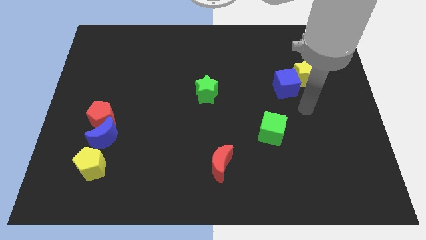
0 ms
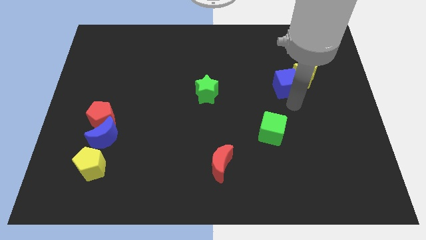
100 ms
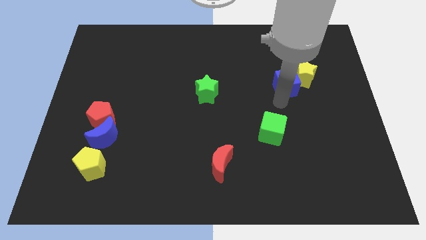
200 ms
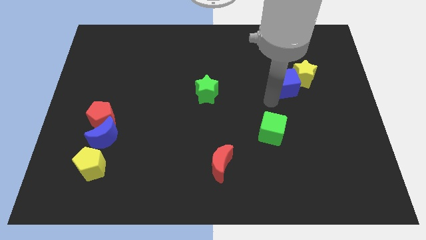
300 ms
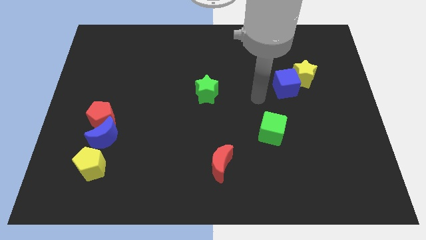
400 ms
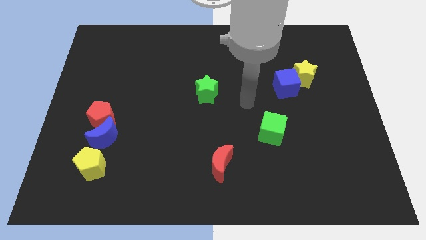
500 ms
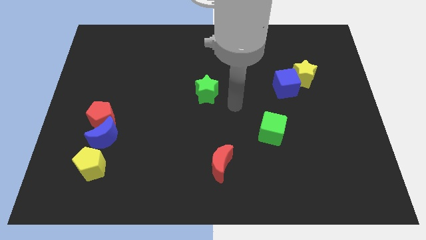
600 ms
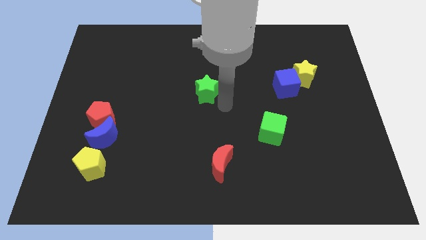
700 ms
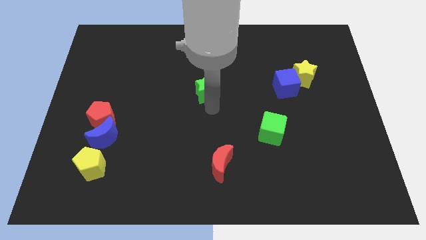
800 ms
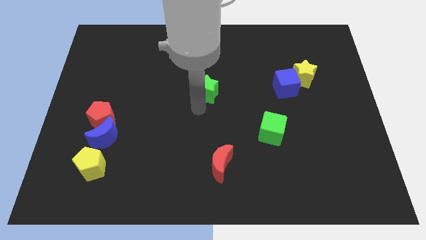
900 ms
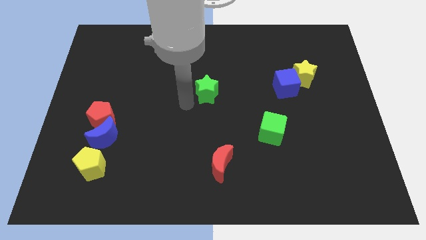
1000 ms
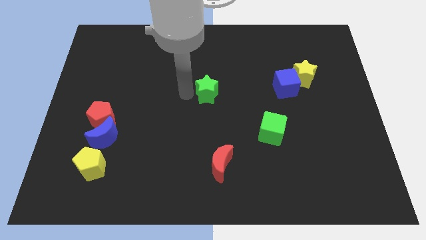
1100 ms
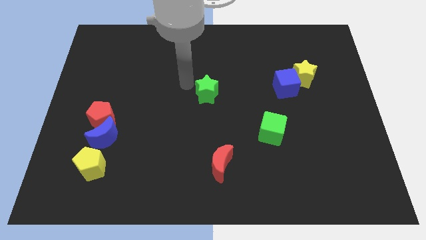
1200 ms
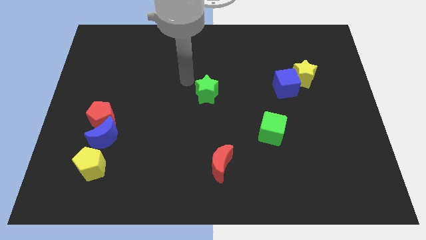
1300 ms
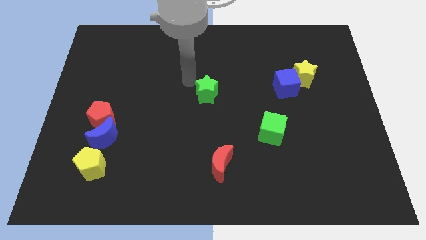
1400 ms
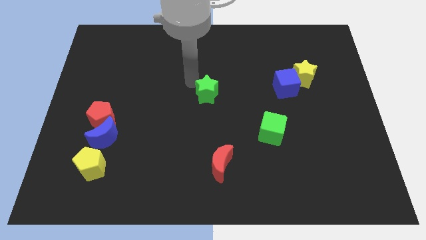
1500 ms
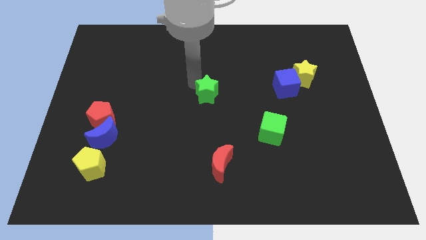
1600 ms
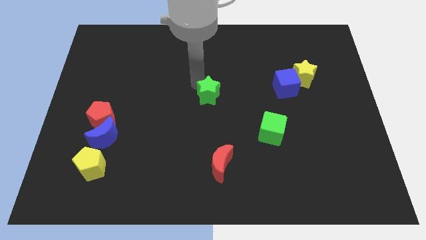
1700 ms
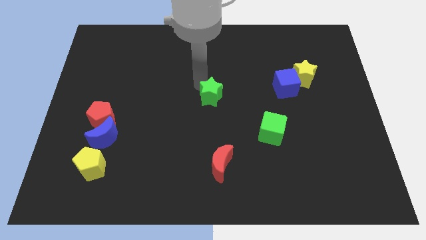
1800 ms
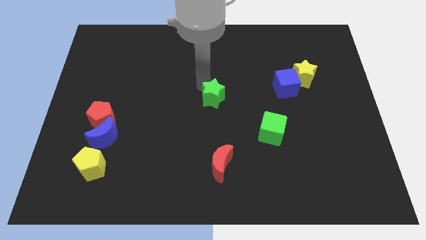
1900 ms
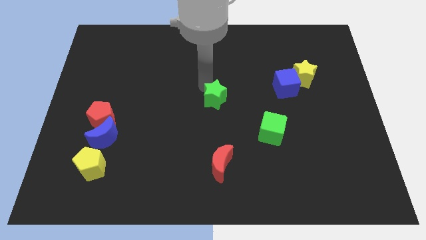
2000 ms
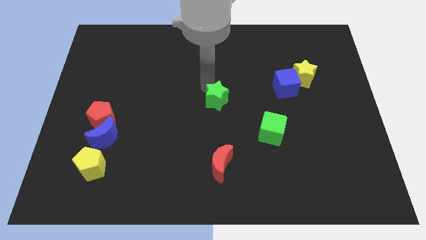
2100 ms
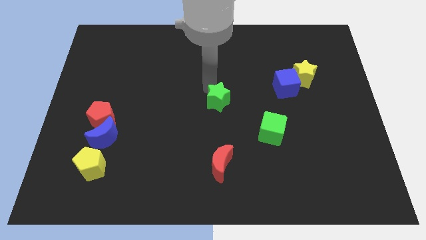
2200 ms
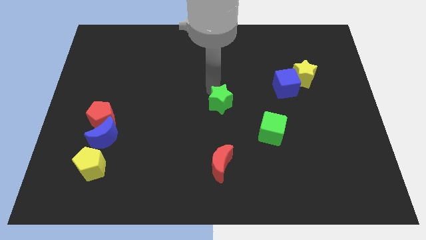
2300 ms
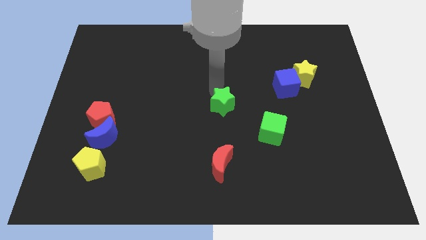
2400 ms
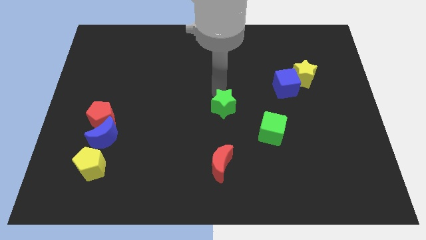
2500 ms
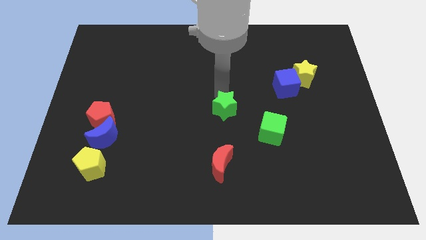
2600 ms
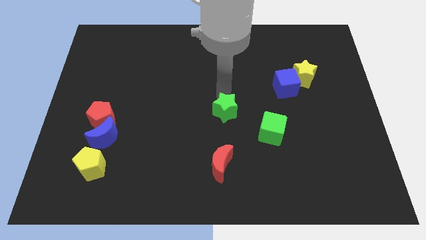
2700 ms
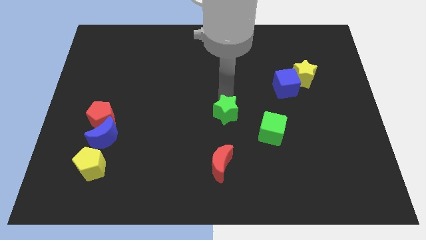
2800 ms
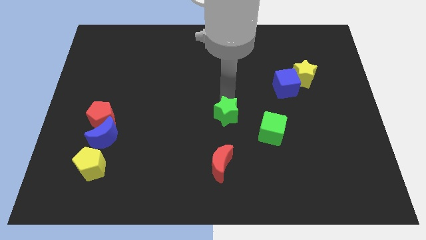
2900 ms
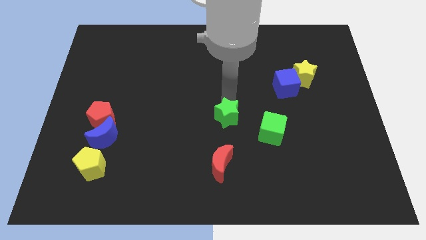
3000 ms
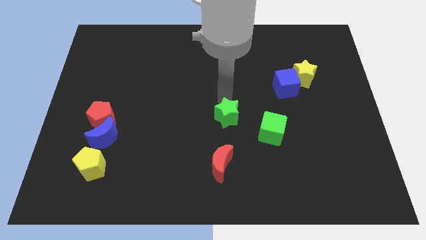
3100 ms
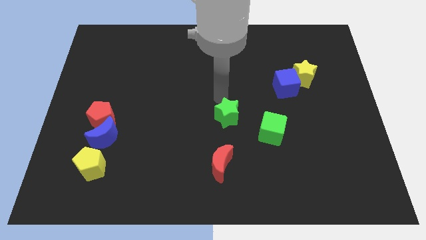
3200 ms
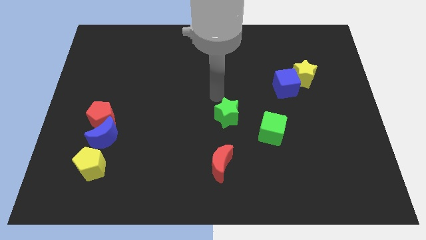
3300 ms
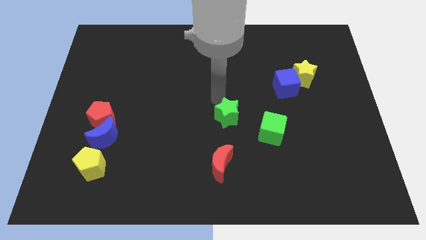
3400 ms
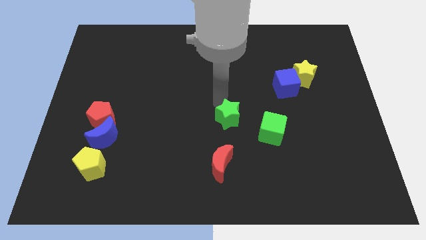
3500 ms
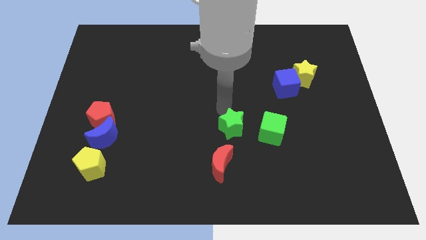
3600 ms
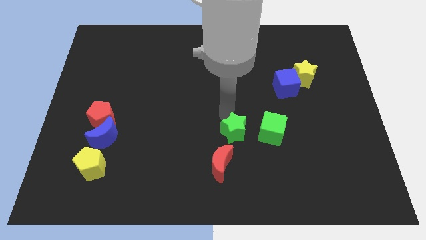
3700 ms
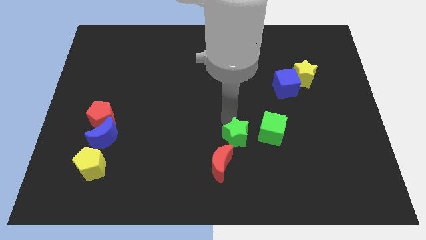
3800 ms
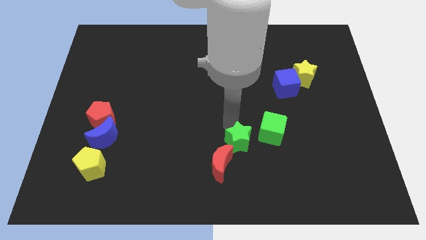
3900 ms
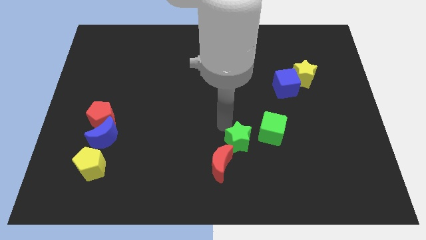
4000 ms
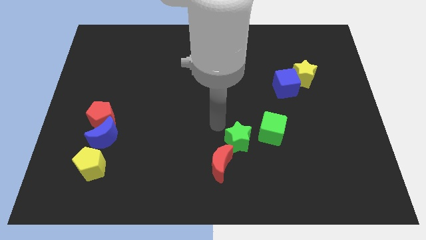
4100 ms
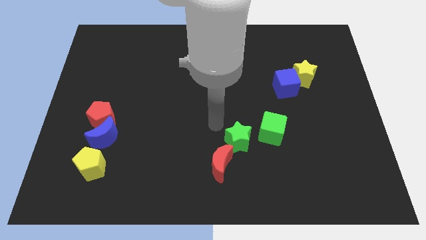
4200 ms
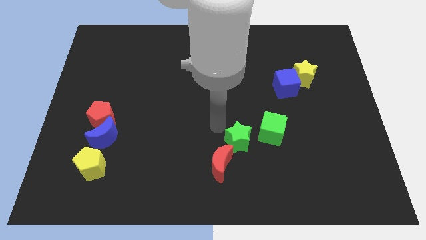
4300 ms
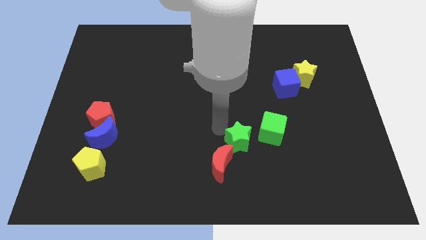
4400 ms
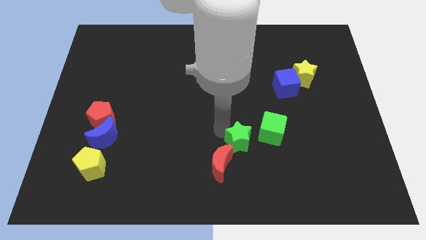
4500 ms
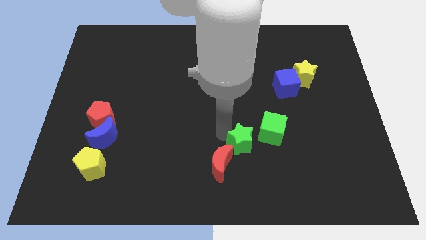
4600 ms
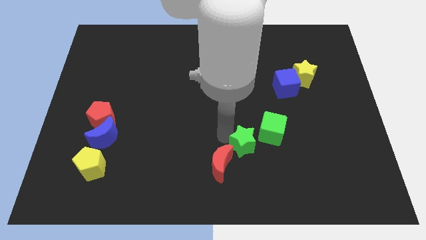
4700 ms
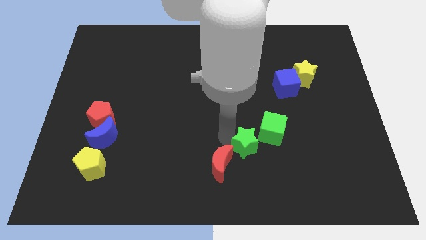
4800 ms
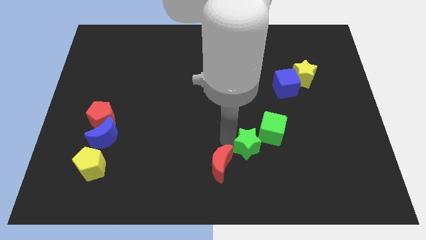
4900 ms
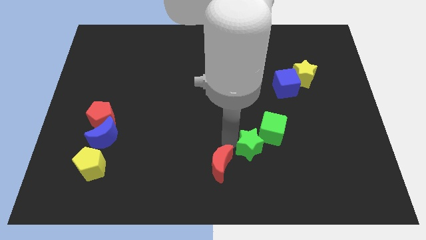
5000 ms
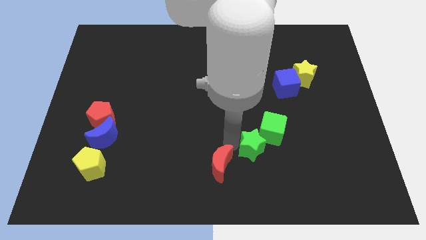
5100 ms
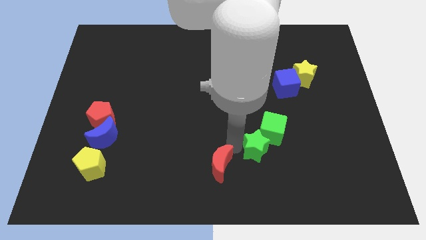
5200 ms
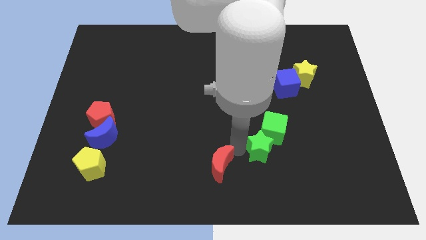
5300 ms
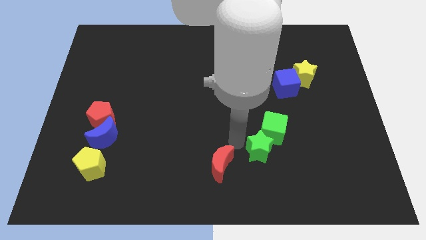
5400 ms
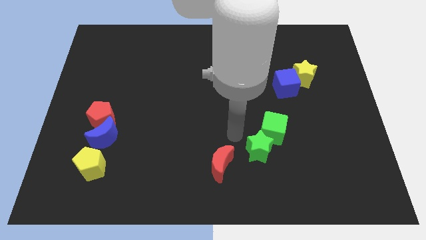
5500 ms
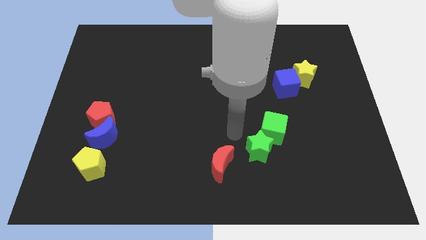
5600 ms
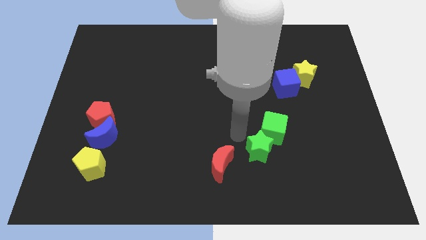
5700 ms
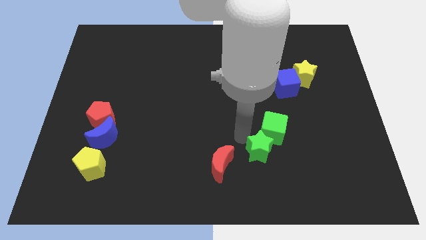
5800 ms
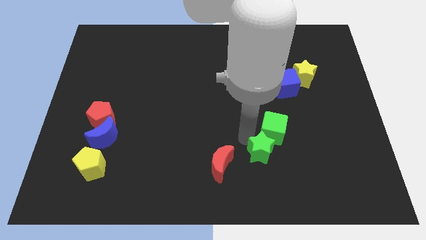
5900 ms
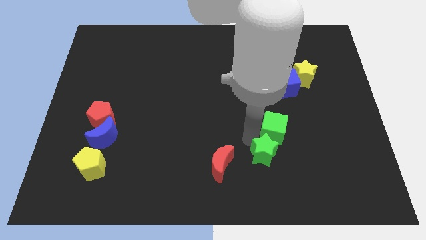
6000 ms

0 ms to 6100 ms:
move the green star down and right

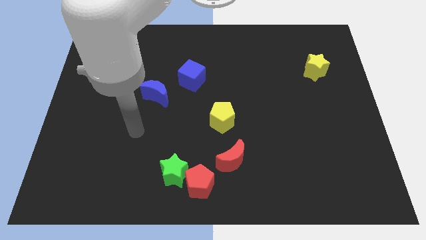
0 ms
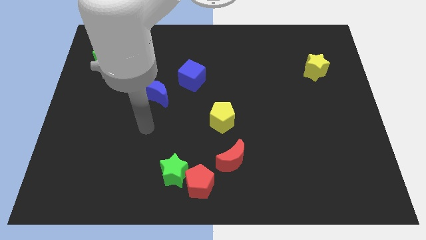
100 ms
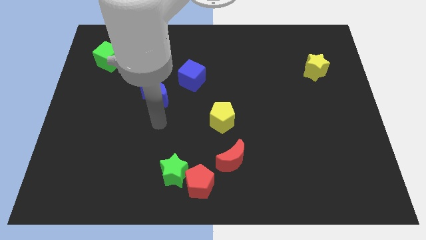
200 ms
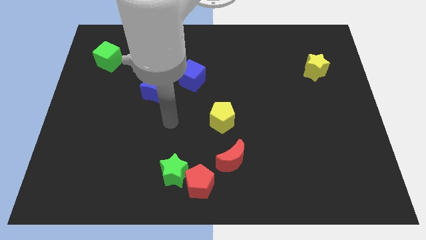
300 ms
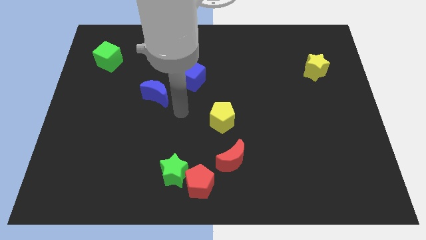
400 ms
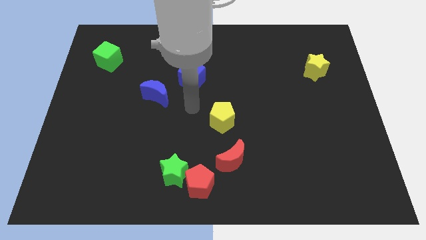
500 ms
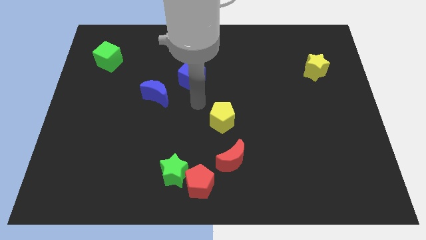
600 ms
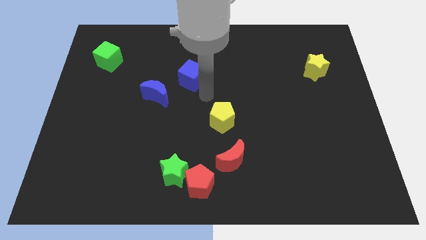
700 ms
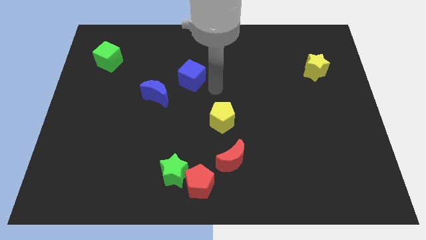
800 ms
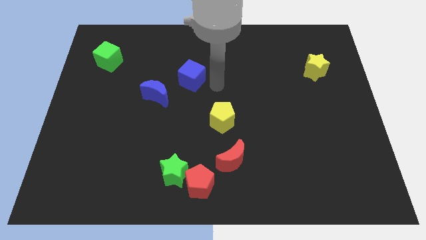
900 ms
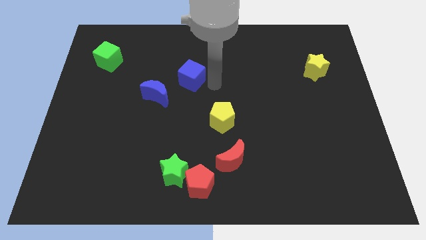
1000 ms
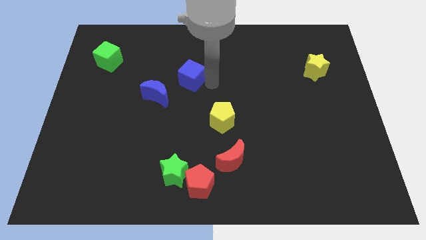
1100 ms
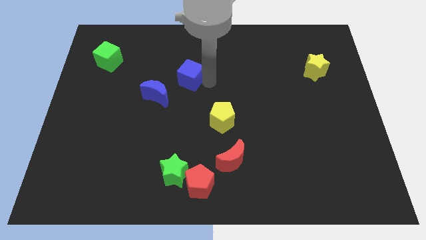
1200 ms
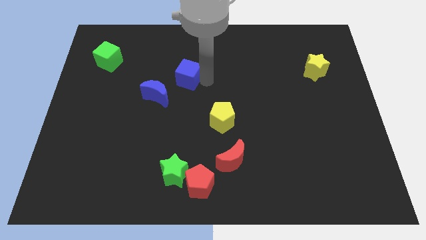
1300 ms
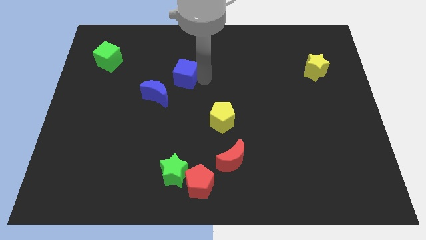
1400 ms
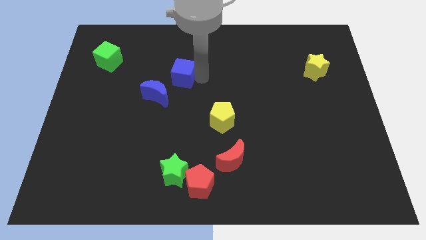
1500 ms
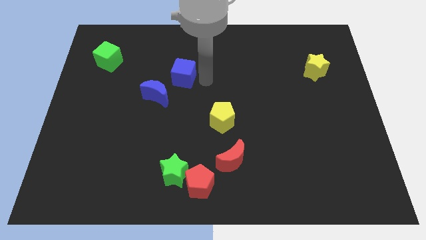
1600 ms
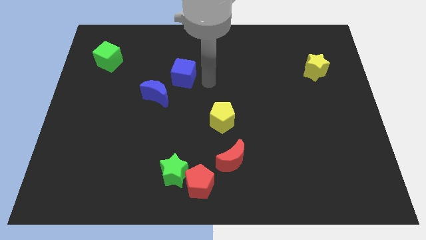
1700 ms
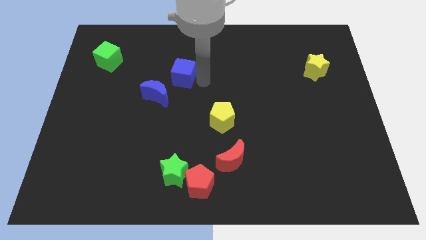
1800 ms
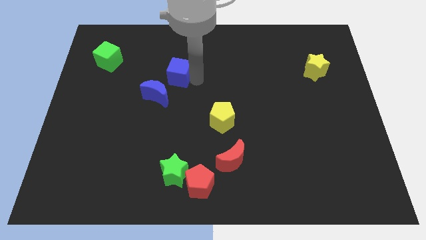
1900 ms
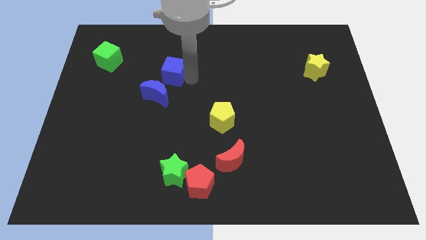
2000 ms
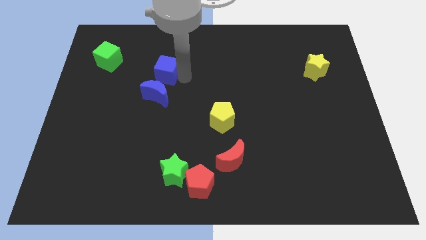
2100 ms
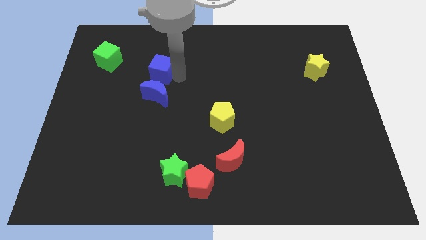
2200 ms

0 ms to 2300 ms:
slightly push the blue cube left
